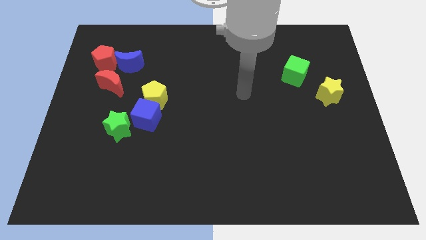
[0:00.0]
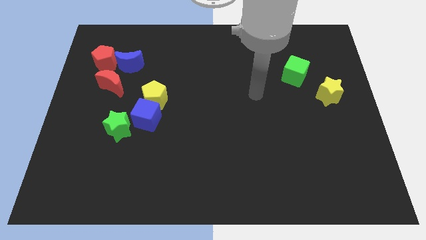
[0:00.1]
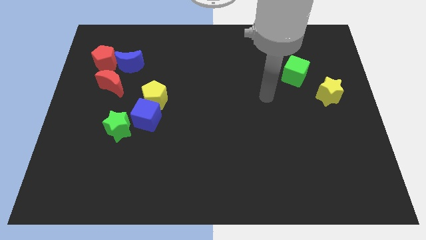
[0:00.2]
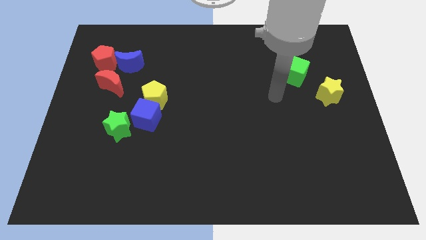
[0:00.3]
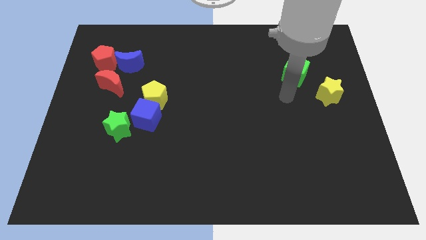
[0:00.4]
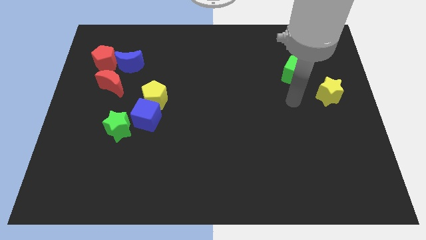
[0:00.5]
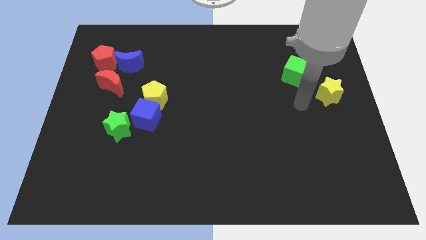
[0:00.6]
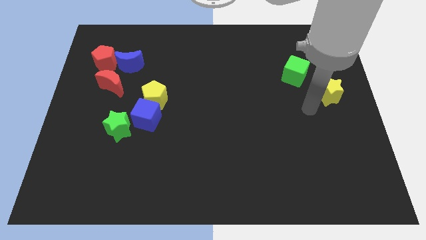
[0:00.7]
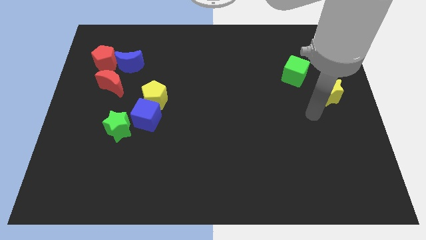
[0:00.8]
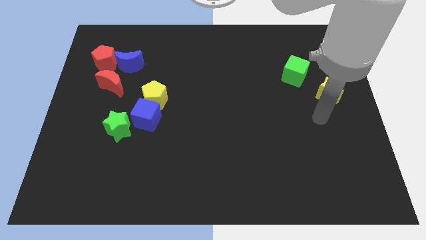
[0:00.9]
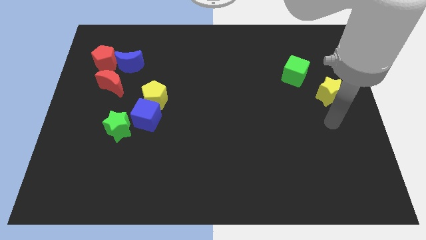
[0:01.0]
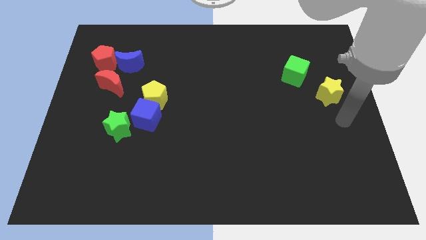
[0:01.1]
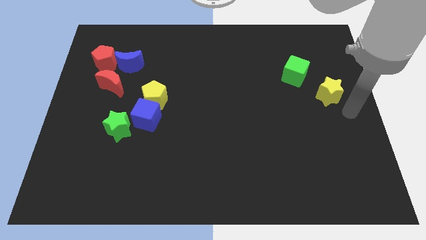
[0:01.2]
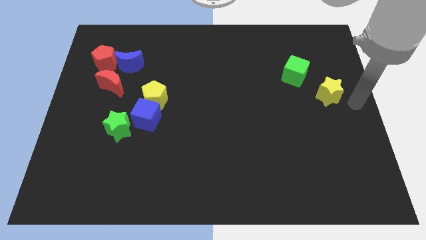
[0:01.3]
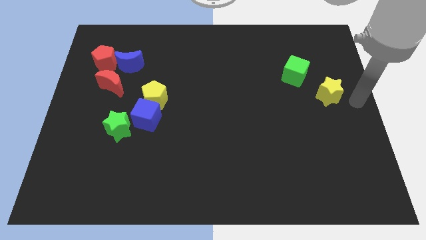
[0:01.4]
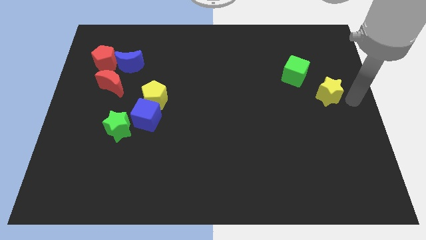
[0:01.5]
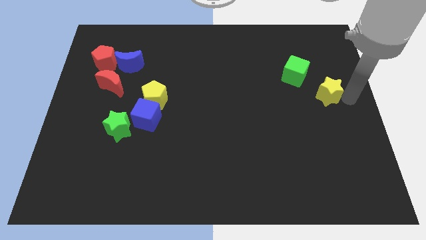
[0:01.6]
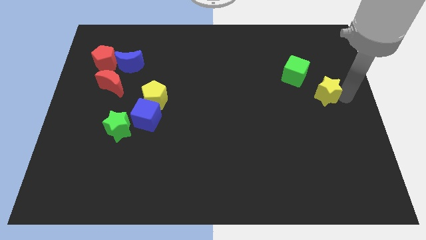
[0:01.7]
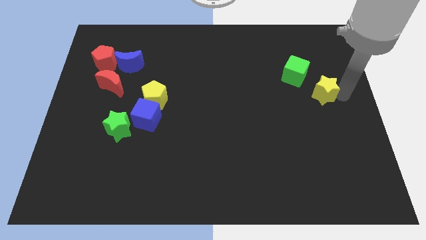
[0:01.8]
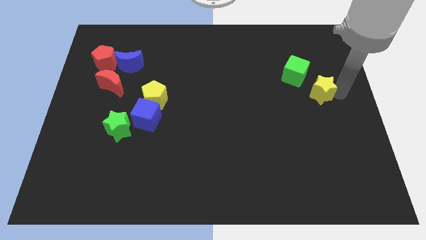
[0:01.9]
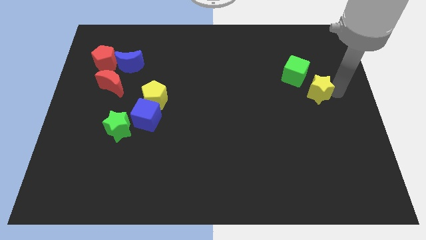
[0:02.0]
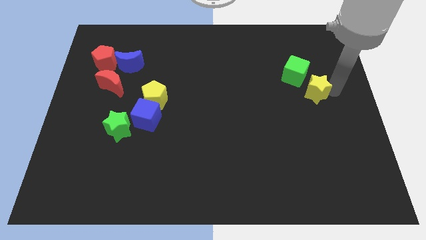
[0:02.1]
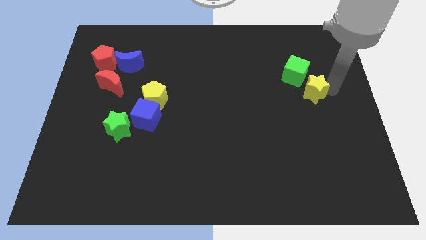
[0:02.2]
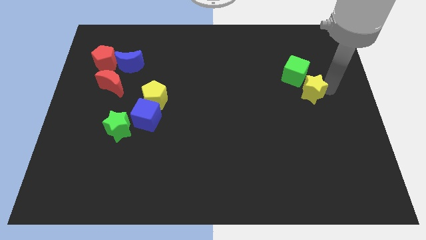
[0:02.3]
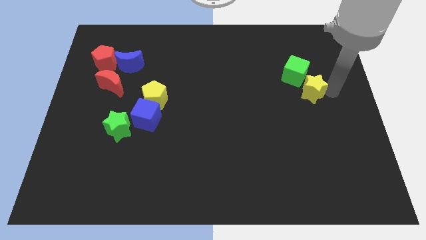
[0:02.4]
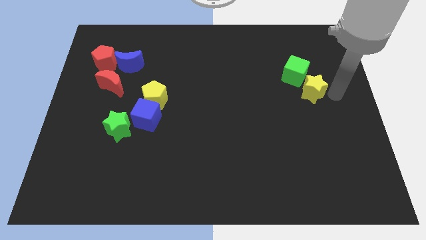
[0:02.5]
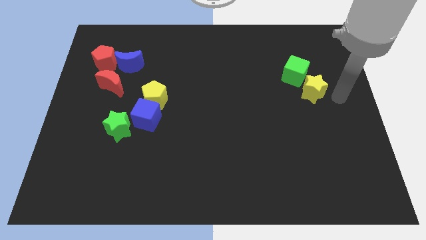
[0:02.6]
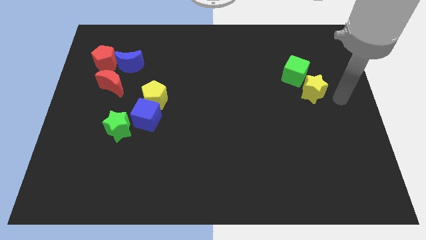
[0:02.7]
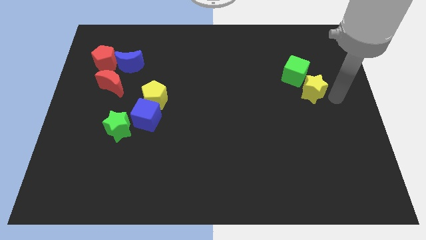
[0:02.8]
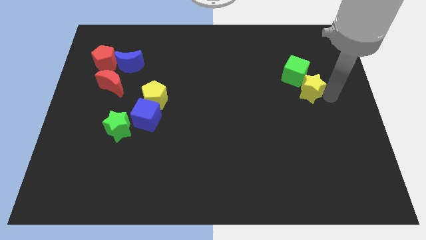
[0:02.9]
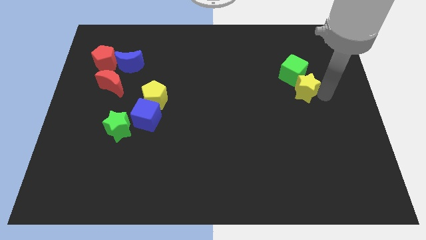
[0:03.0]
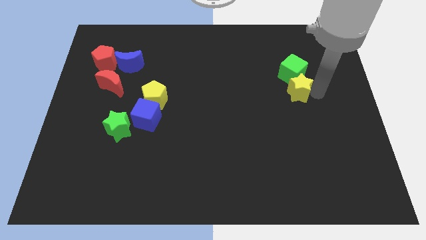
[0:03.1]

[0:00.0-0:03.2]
slightly push the yellow star left

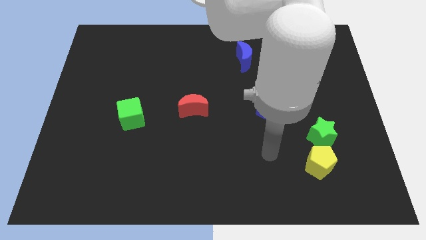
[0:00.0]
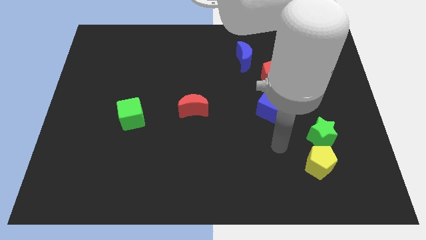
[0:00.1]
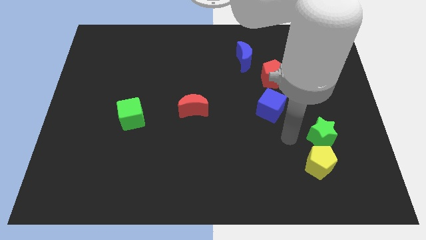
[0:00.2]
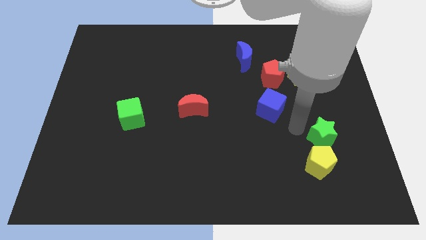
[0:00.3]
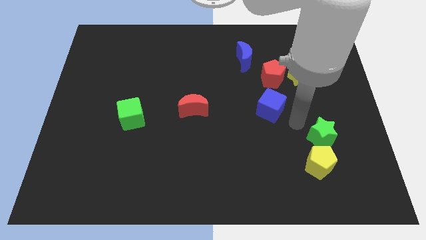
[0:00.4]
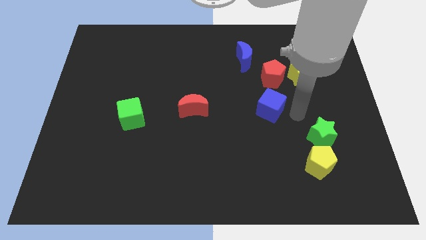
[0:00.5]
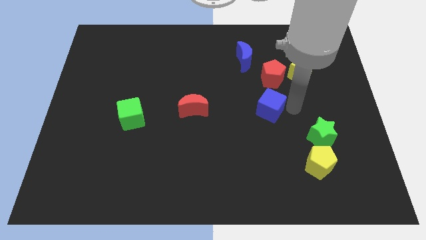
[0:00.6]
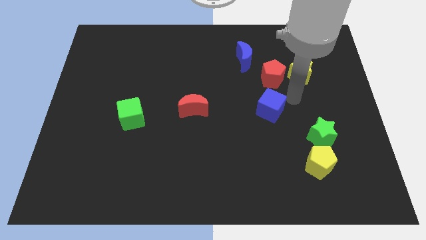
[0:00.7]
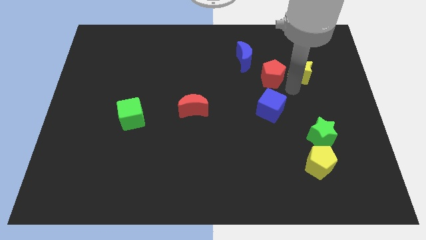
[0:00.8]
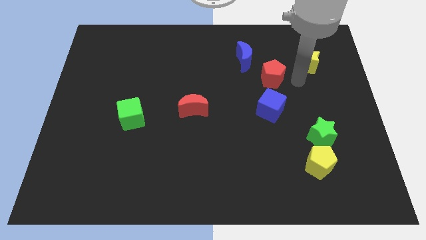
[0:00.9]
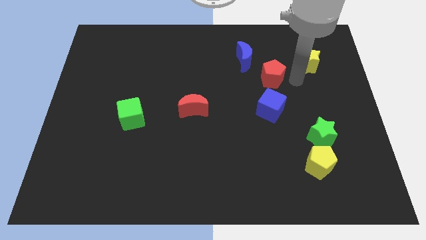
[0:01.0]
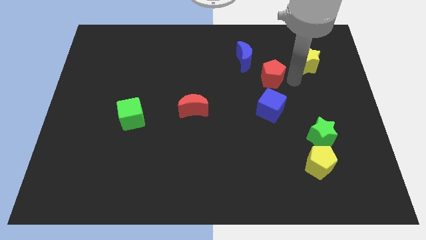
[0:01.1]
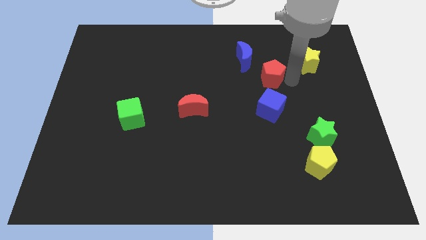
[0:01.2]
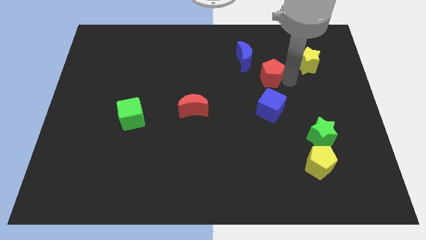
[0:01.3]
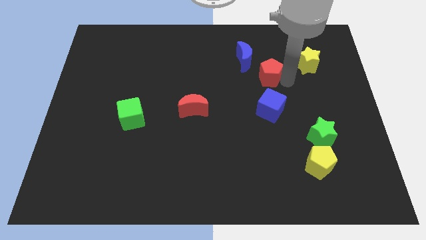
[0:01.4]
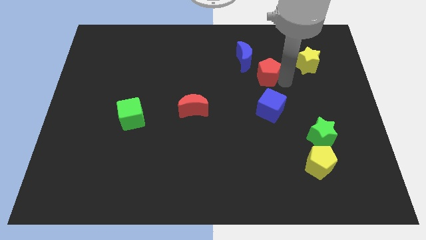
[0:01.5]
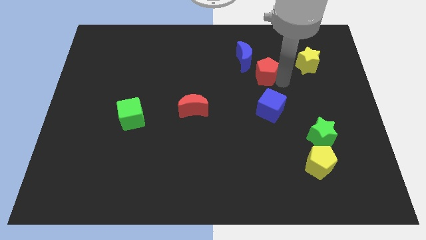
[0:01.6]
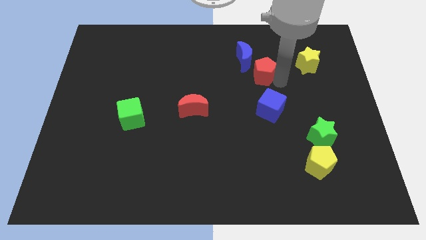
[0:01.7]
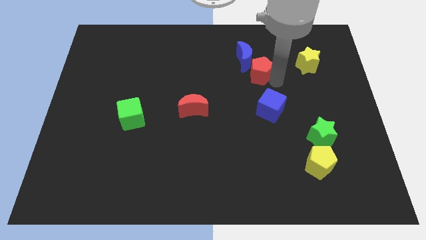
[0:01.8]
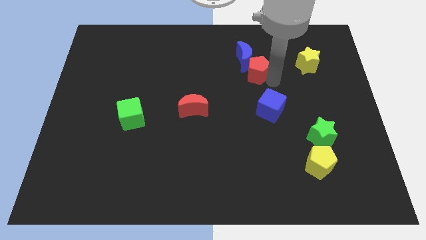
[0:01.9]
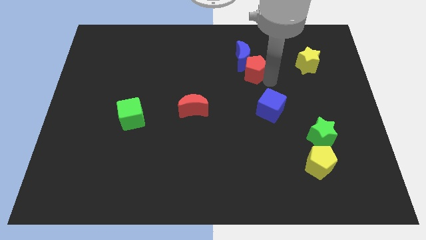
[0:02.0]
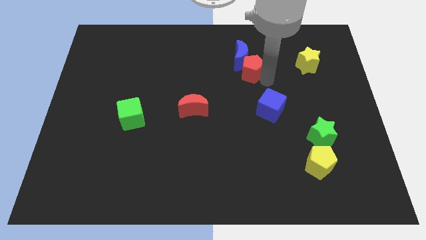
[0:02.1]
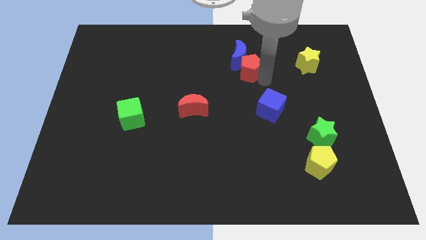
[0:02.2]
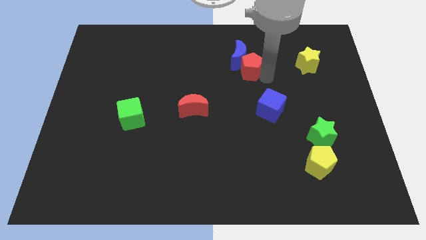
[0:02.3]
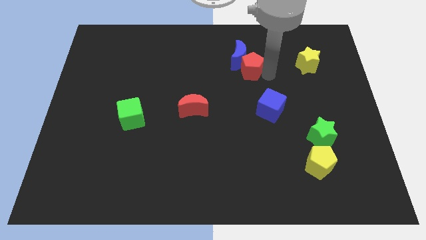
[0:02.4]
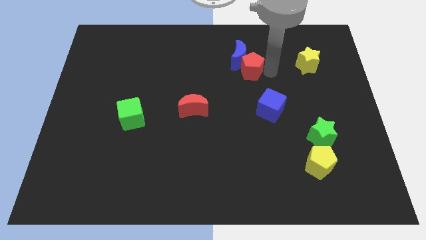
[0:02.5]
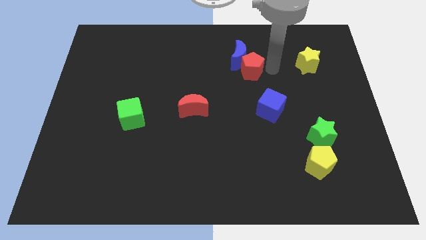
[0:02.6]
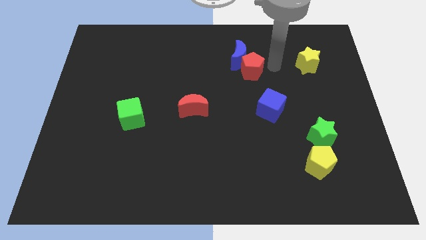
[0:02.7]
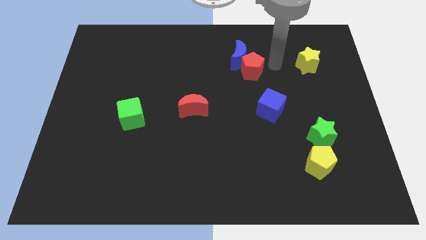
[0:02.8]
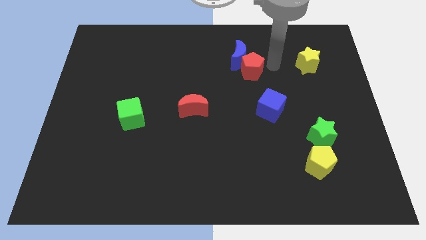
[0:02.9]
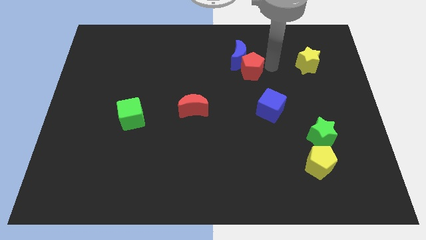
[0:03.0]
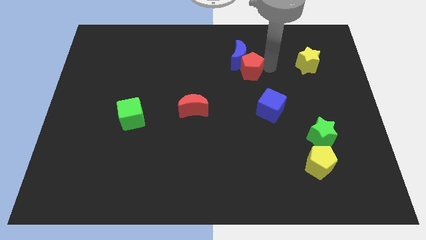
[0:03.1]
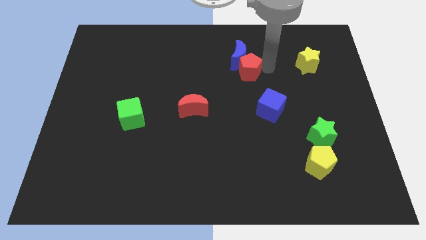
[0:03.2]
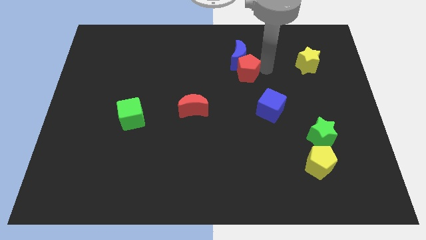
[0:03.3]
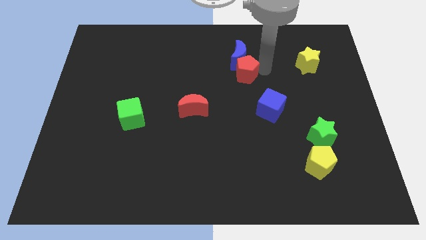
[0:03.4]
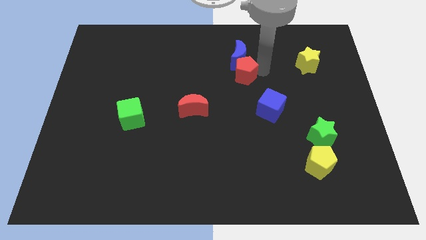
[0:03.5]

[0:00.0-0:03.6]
slide the red pentagon slightly to the left

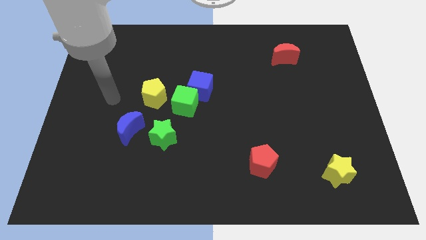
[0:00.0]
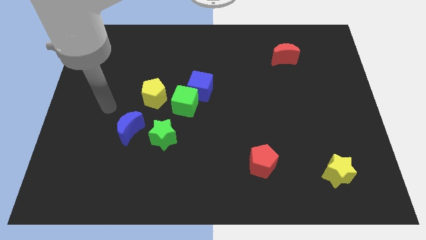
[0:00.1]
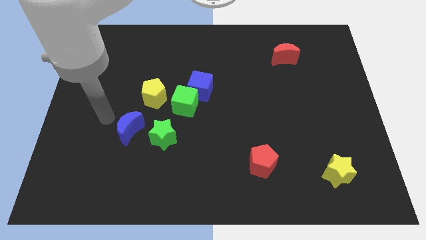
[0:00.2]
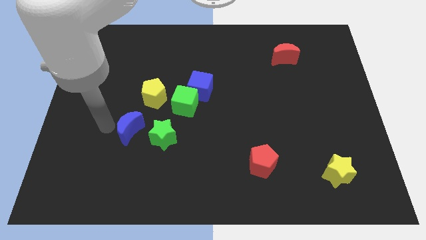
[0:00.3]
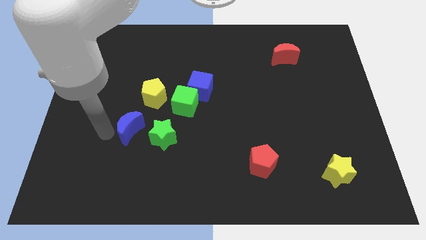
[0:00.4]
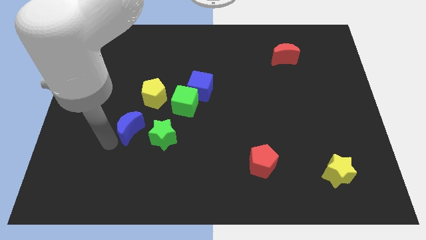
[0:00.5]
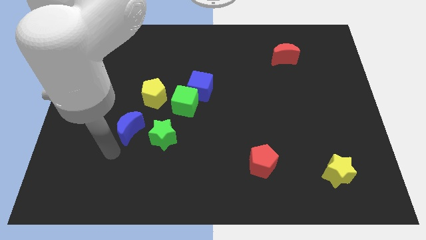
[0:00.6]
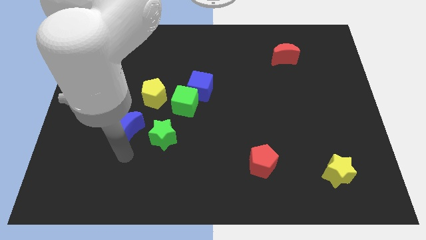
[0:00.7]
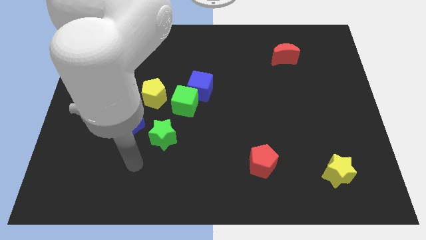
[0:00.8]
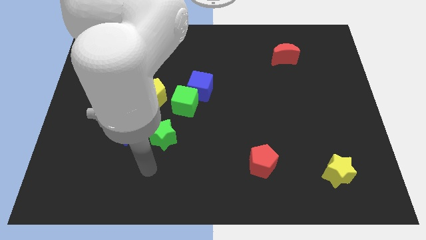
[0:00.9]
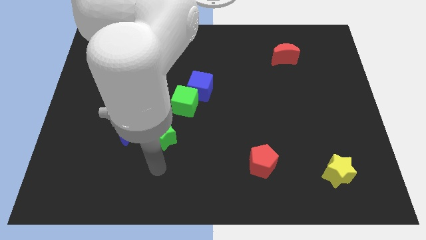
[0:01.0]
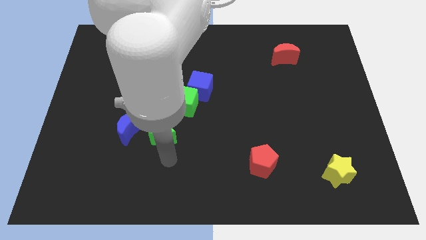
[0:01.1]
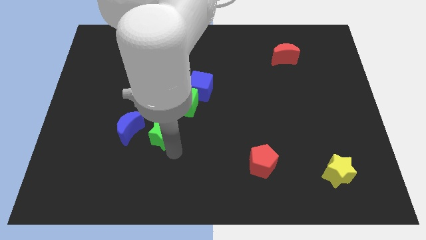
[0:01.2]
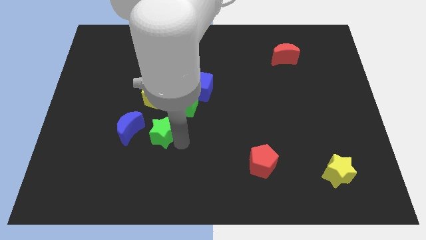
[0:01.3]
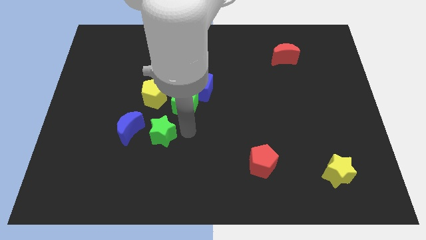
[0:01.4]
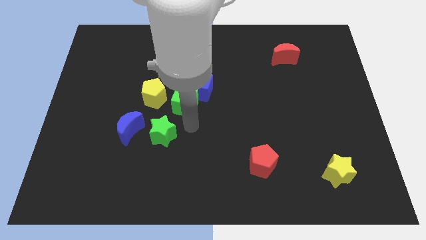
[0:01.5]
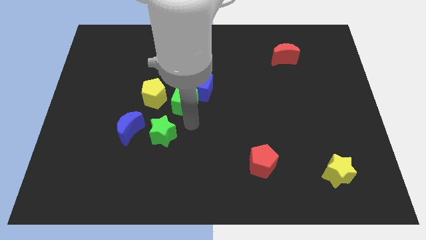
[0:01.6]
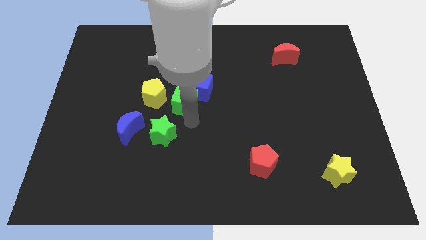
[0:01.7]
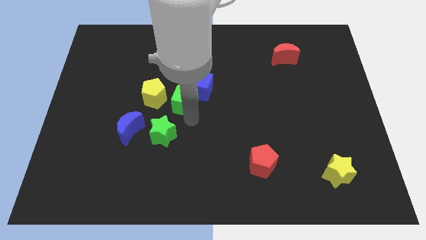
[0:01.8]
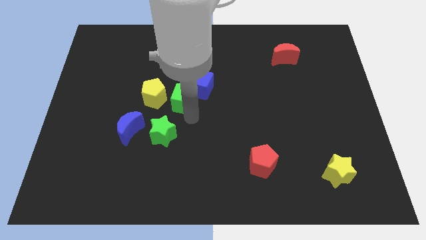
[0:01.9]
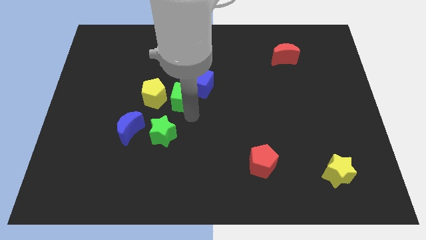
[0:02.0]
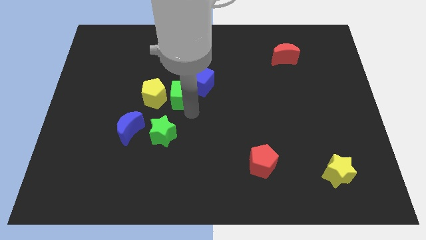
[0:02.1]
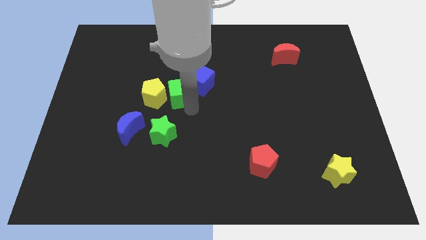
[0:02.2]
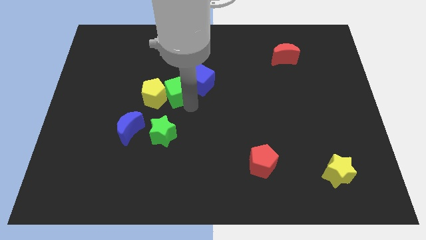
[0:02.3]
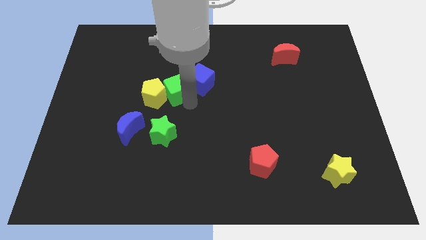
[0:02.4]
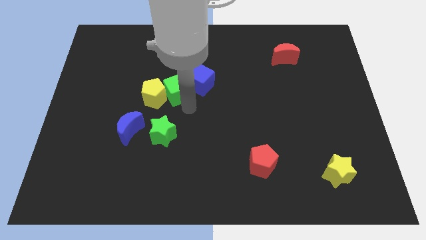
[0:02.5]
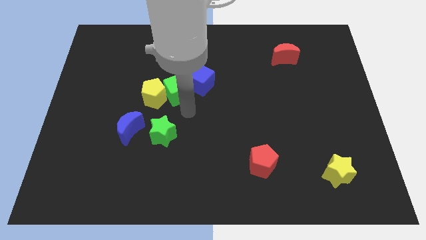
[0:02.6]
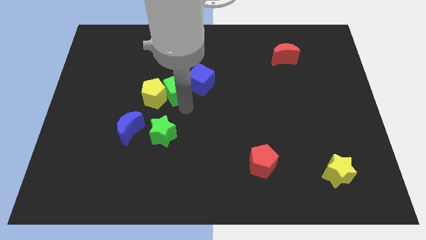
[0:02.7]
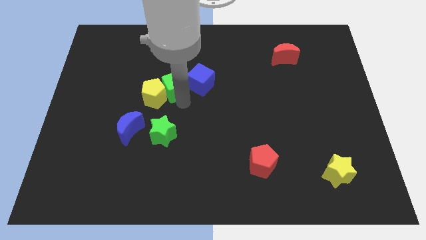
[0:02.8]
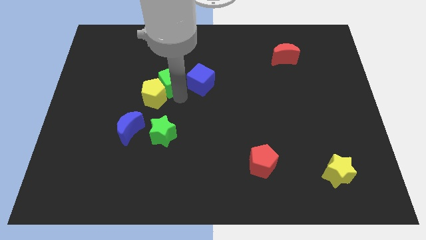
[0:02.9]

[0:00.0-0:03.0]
move the green cube diagonally upwards and left slightly
